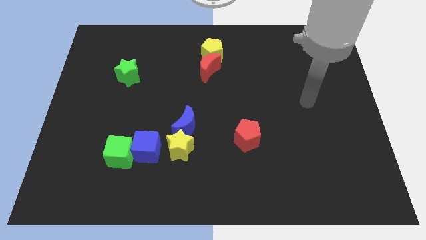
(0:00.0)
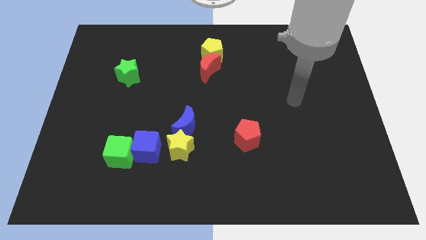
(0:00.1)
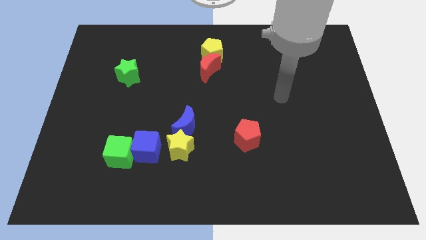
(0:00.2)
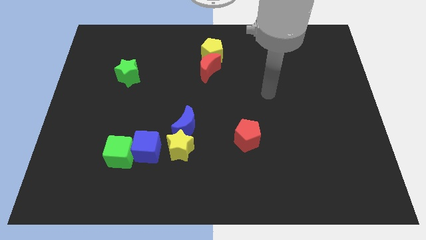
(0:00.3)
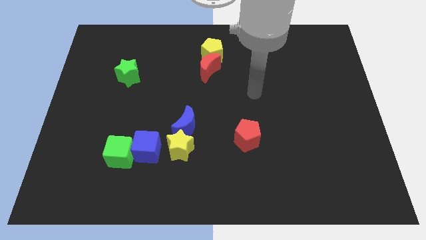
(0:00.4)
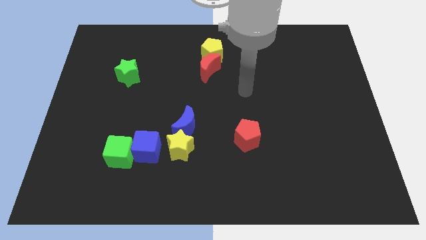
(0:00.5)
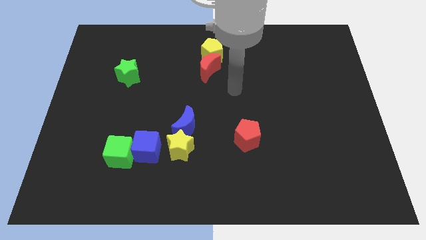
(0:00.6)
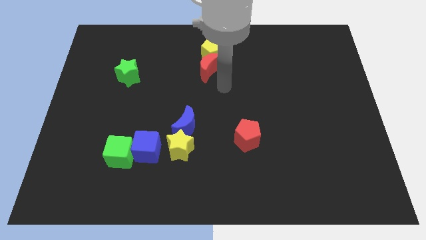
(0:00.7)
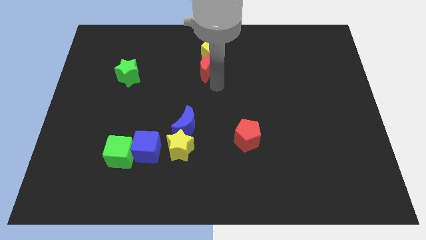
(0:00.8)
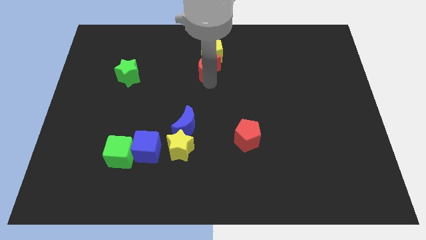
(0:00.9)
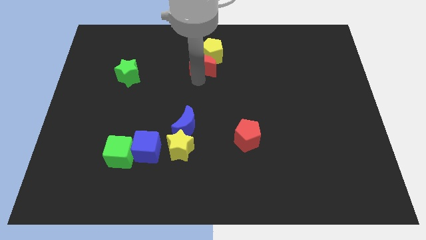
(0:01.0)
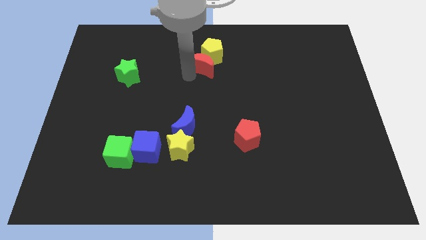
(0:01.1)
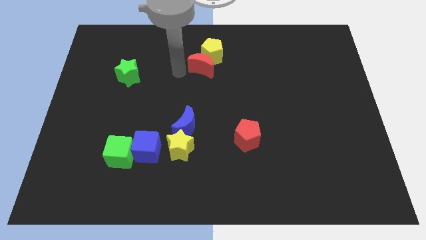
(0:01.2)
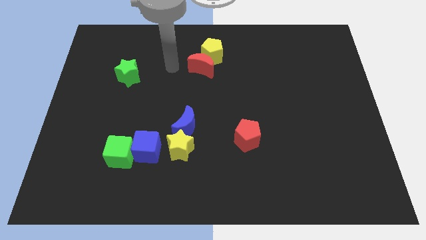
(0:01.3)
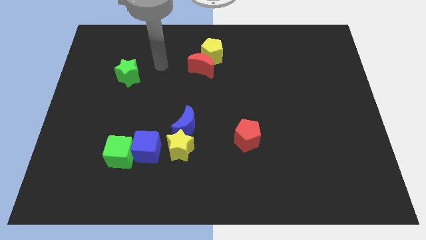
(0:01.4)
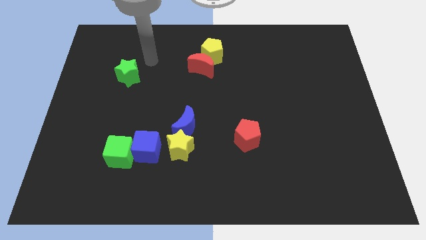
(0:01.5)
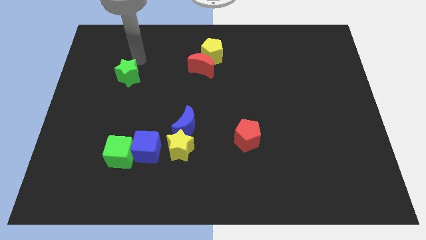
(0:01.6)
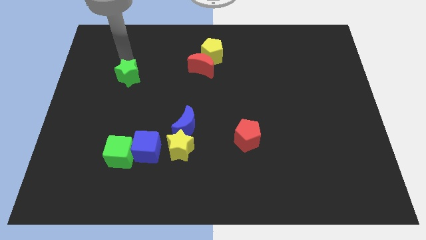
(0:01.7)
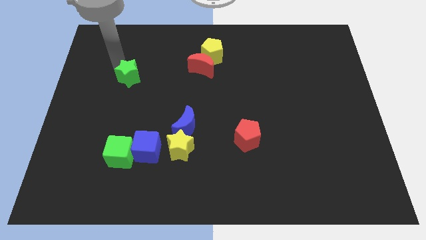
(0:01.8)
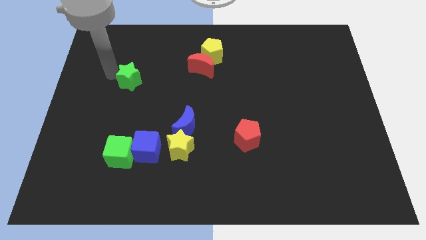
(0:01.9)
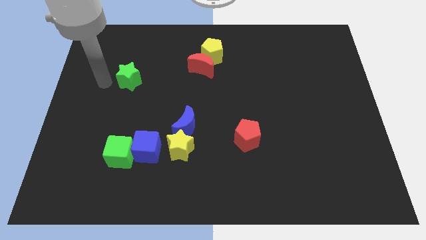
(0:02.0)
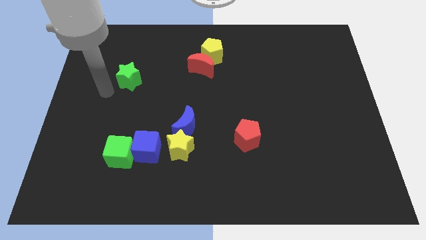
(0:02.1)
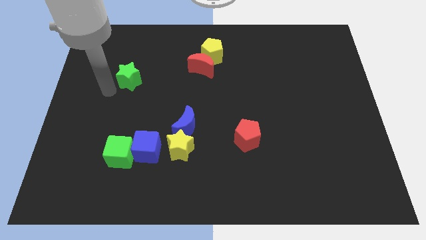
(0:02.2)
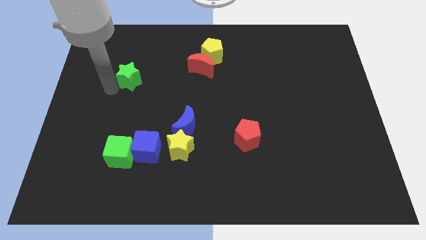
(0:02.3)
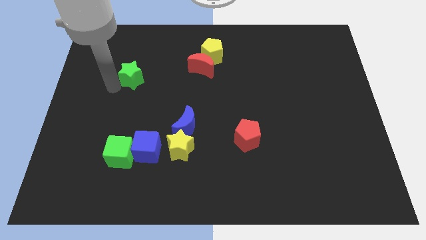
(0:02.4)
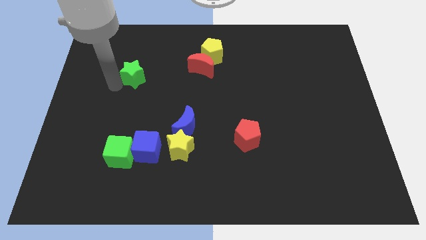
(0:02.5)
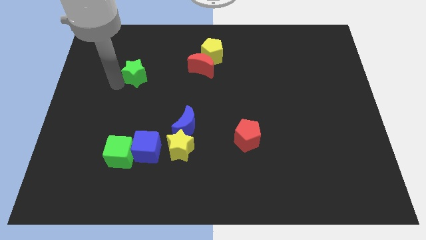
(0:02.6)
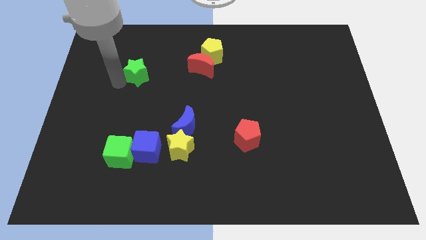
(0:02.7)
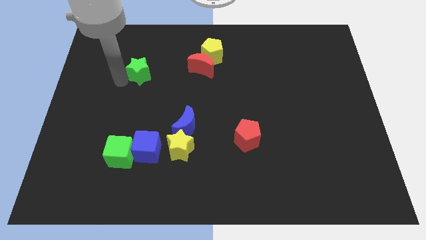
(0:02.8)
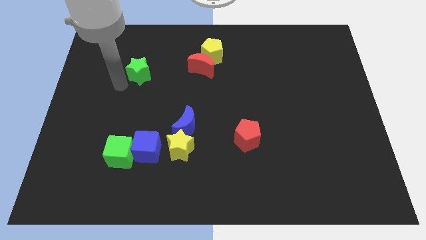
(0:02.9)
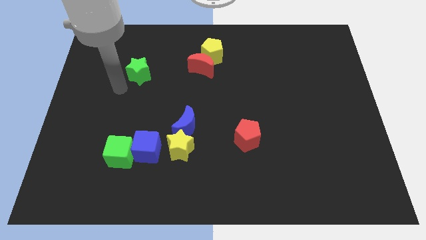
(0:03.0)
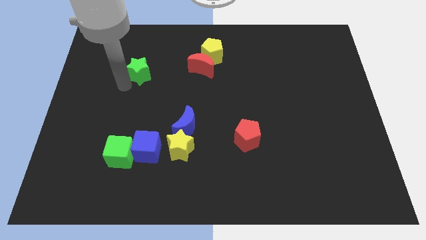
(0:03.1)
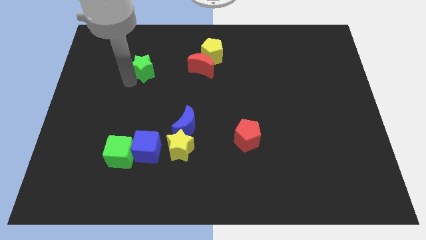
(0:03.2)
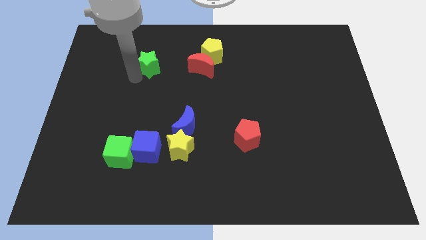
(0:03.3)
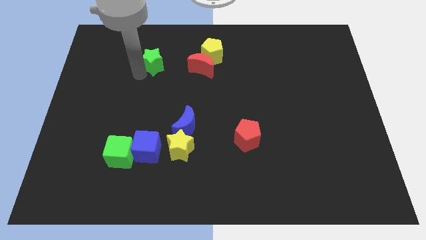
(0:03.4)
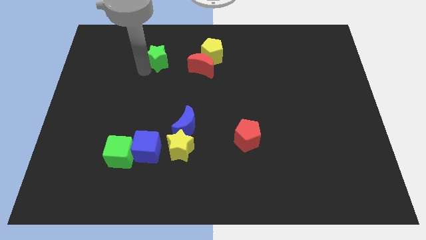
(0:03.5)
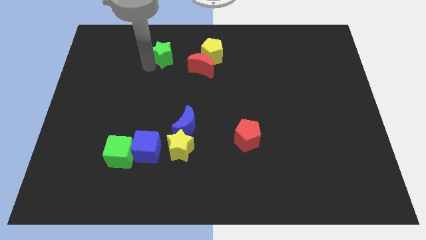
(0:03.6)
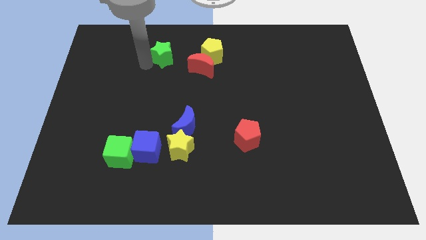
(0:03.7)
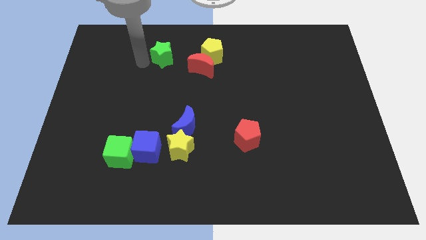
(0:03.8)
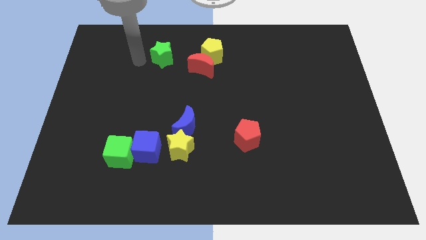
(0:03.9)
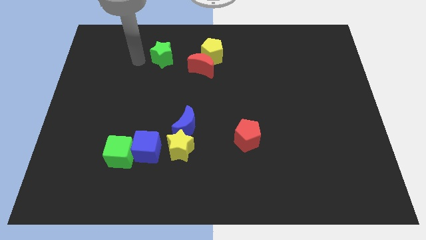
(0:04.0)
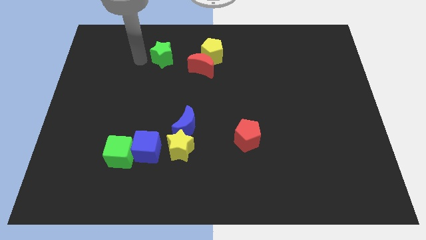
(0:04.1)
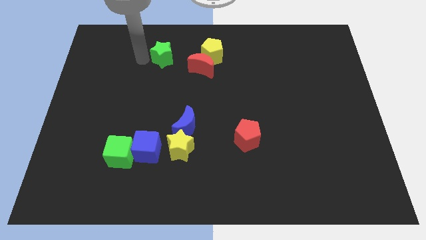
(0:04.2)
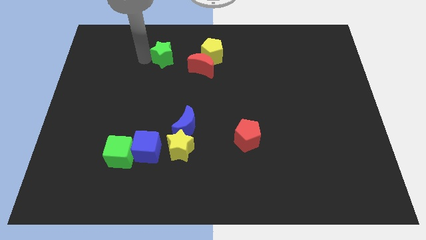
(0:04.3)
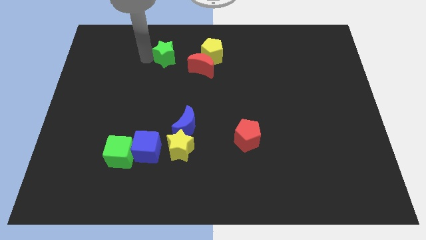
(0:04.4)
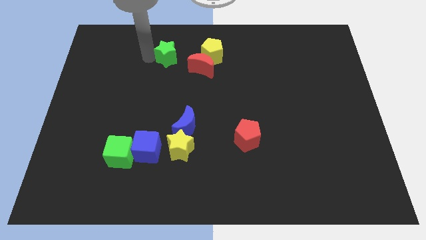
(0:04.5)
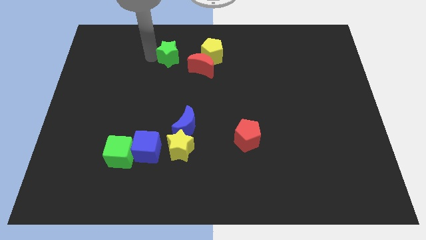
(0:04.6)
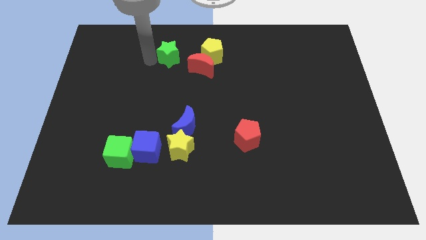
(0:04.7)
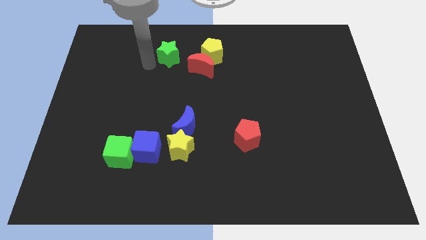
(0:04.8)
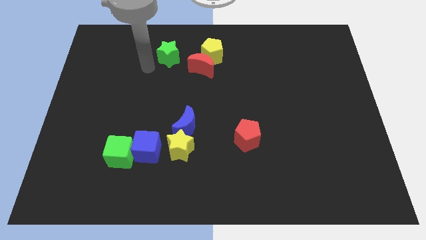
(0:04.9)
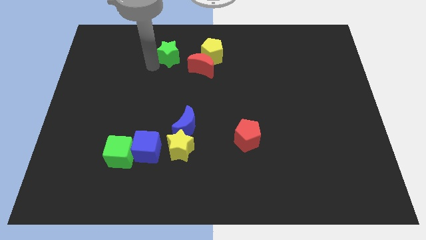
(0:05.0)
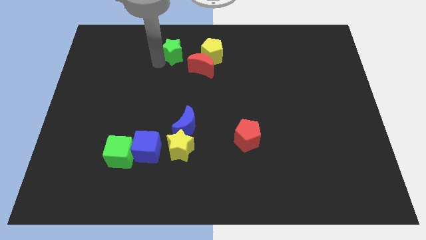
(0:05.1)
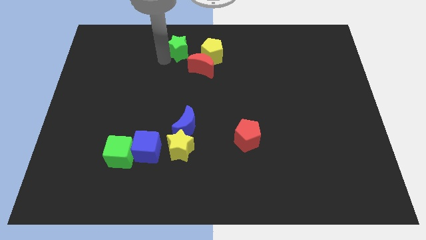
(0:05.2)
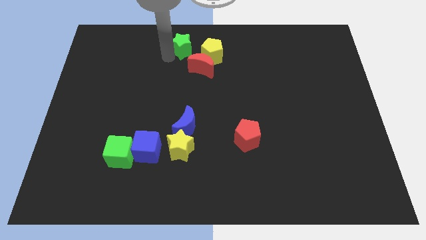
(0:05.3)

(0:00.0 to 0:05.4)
slide the green star to the top

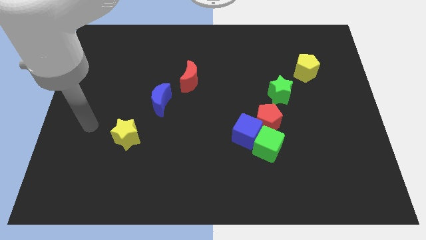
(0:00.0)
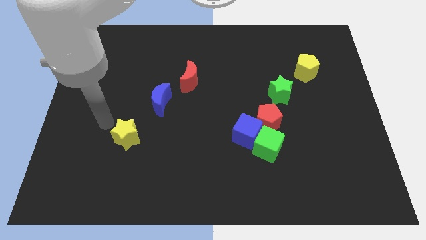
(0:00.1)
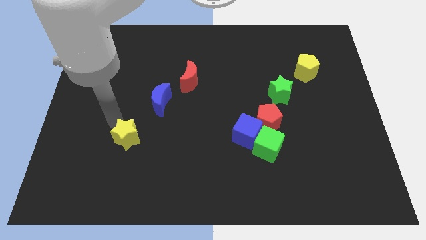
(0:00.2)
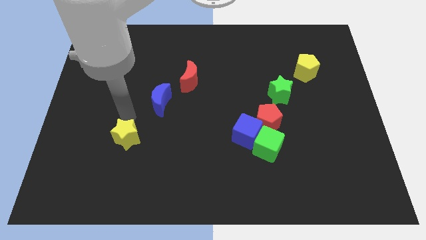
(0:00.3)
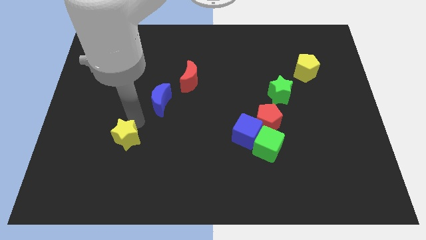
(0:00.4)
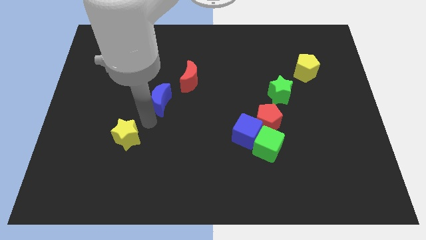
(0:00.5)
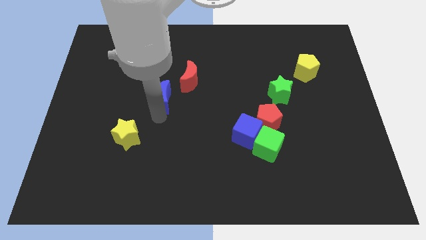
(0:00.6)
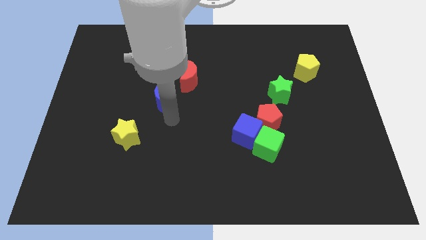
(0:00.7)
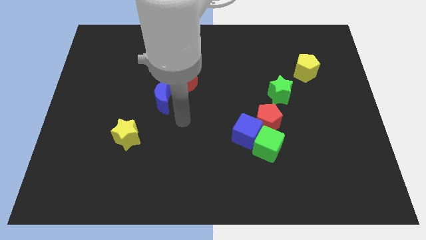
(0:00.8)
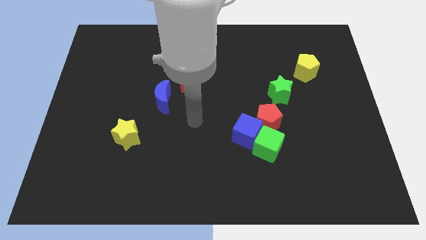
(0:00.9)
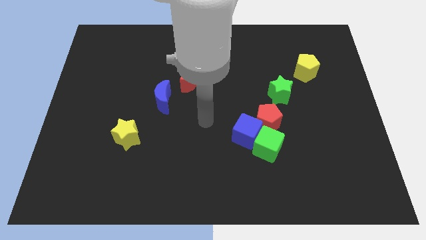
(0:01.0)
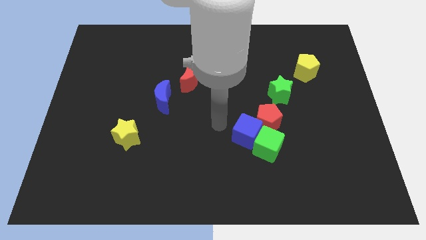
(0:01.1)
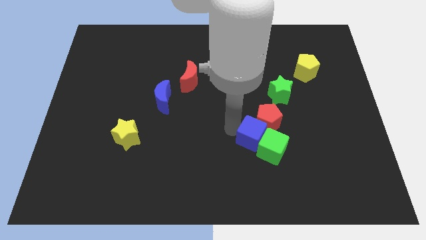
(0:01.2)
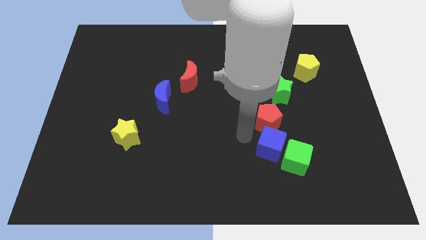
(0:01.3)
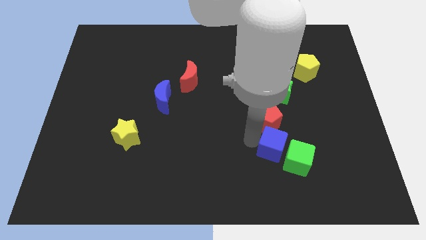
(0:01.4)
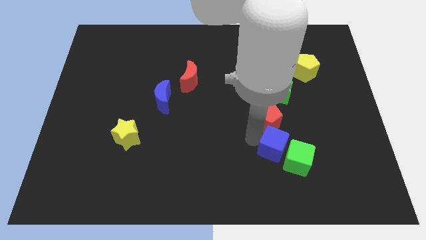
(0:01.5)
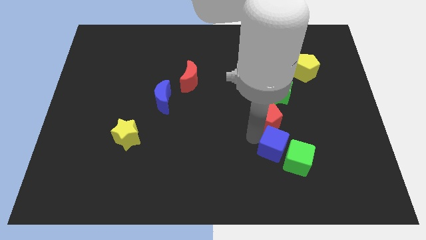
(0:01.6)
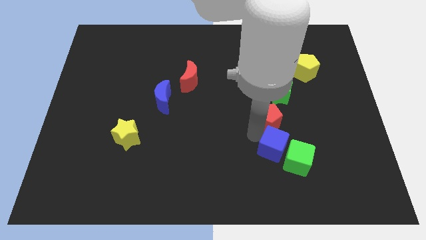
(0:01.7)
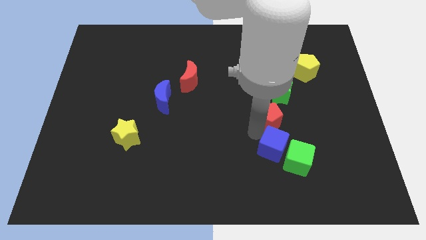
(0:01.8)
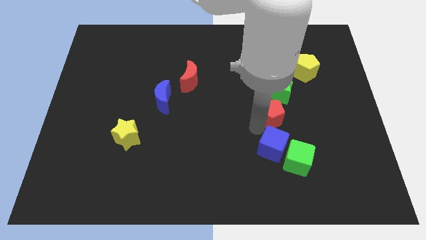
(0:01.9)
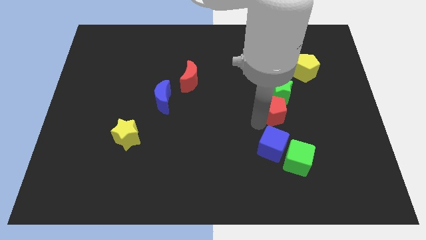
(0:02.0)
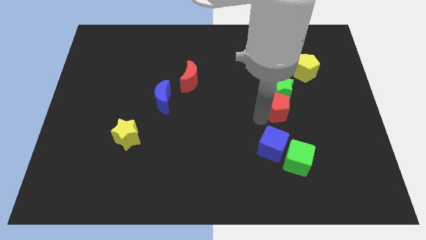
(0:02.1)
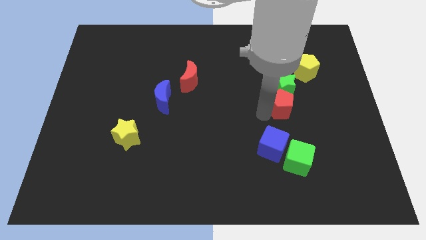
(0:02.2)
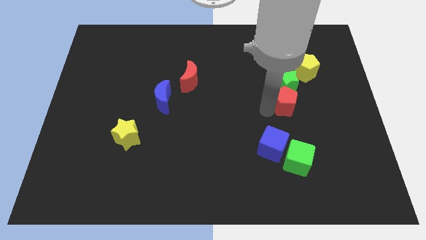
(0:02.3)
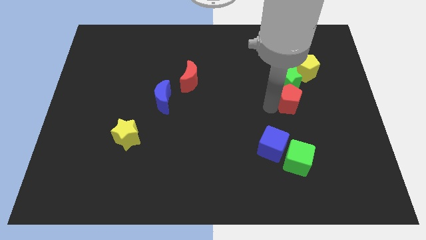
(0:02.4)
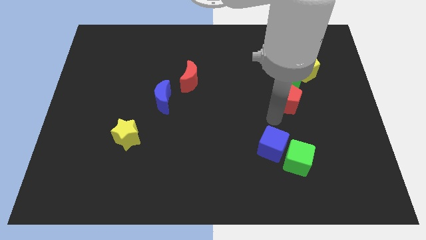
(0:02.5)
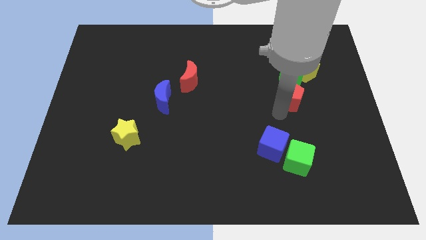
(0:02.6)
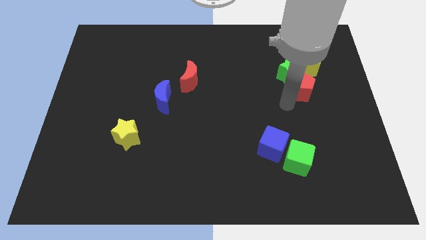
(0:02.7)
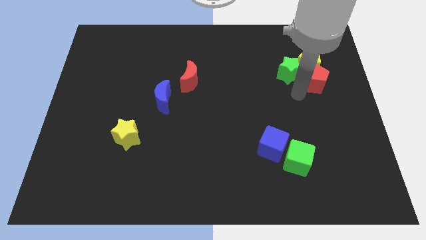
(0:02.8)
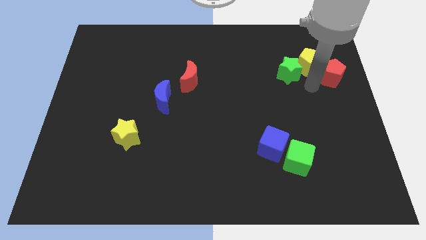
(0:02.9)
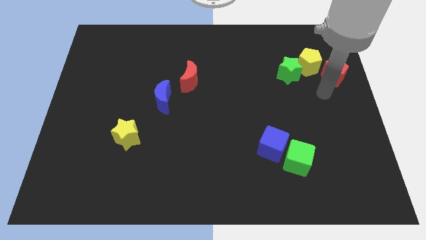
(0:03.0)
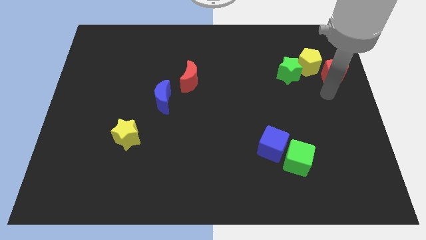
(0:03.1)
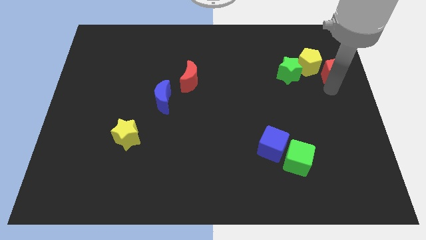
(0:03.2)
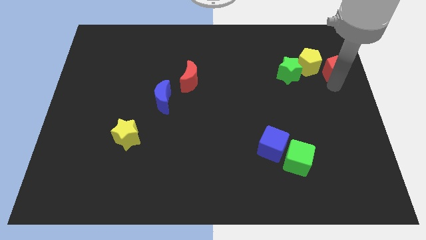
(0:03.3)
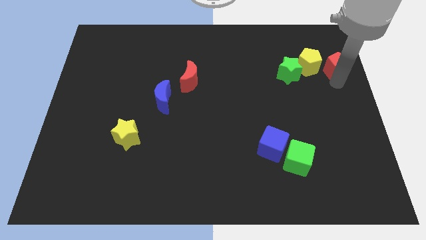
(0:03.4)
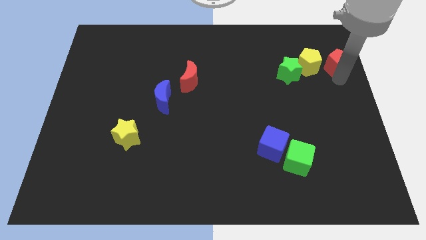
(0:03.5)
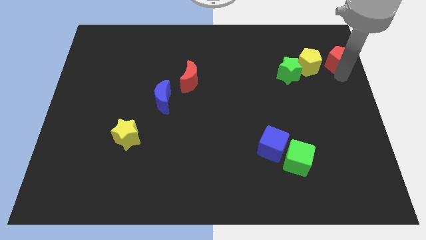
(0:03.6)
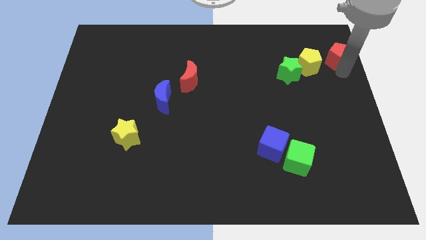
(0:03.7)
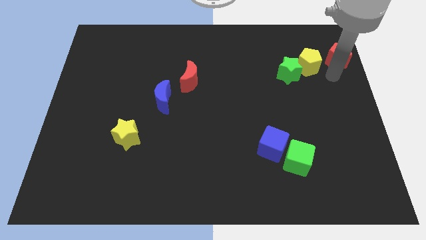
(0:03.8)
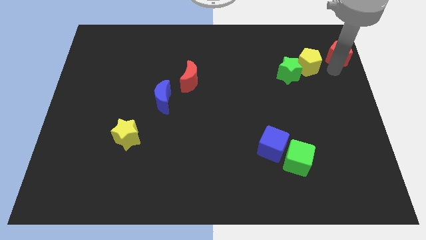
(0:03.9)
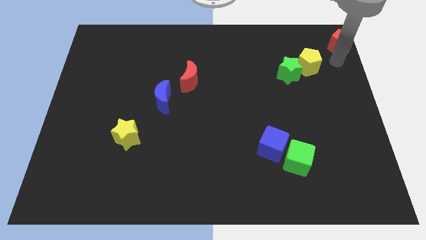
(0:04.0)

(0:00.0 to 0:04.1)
push the red pentagon to the top right corner
